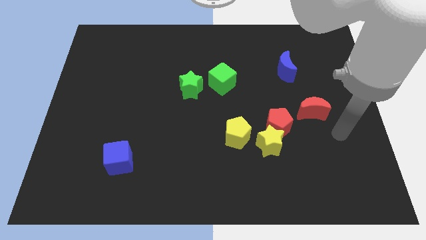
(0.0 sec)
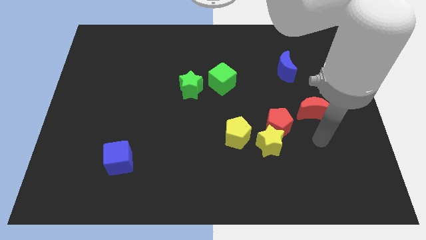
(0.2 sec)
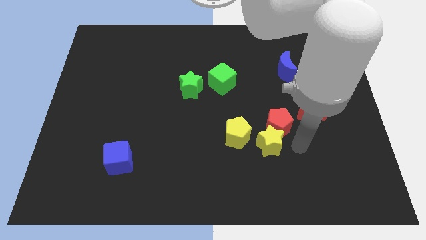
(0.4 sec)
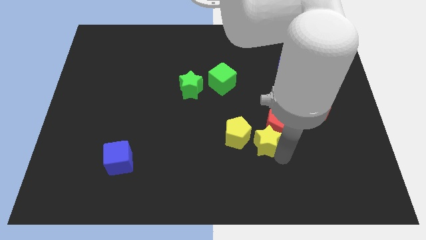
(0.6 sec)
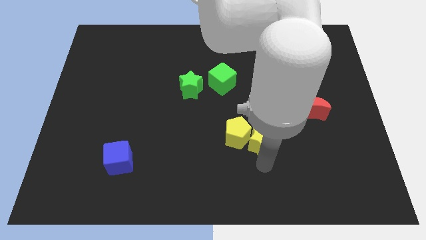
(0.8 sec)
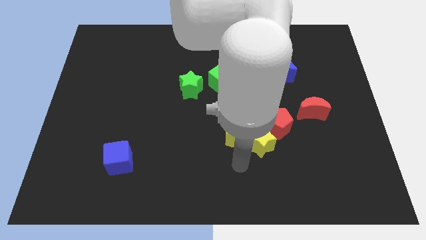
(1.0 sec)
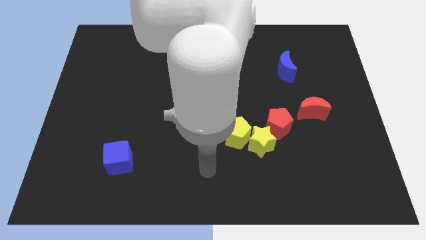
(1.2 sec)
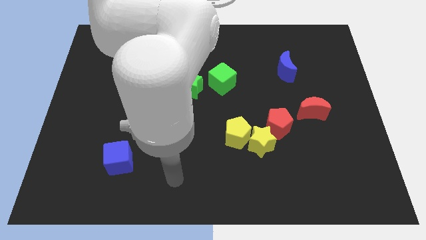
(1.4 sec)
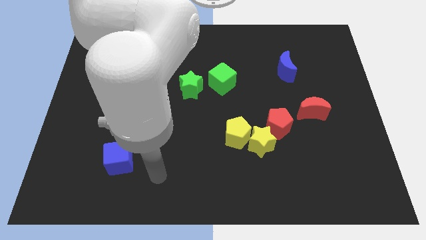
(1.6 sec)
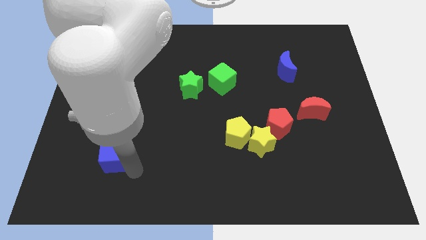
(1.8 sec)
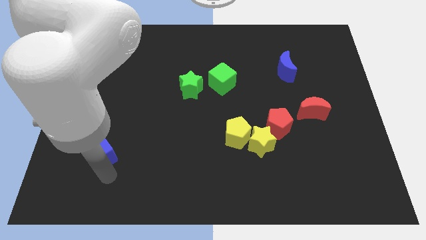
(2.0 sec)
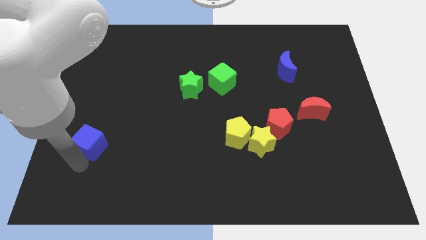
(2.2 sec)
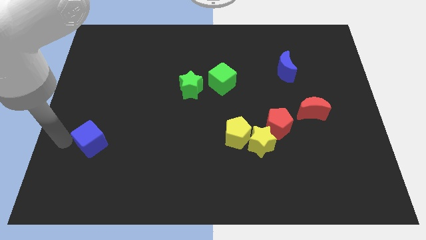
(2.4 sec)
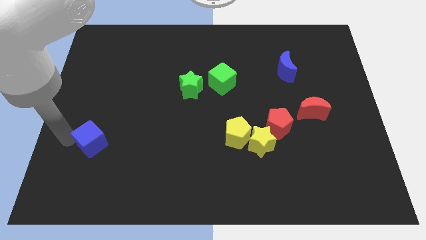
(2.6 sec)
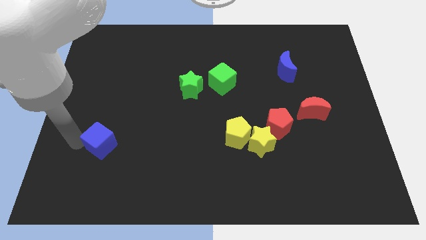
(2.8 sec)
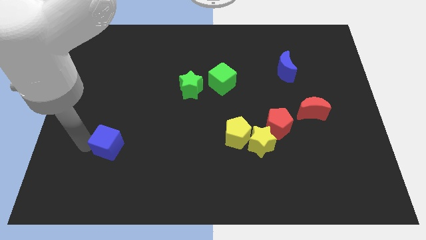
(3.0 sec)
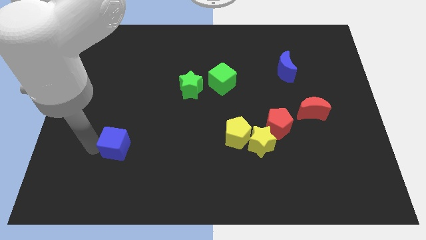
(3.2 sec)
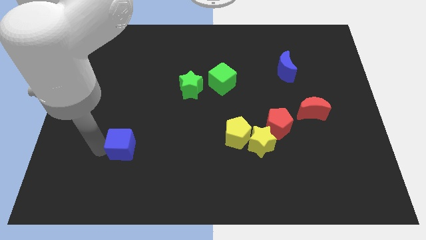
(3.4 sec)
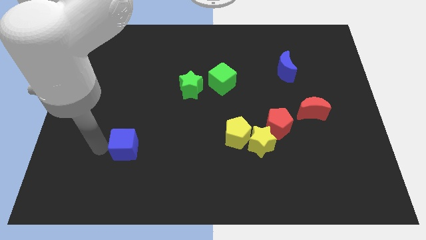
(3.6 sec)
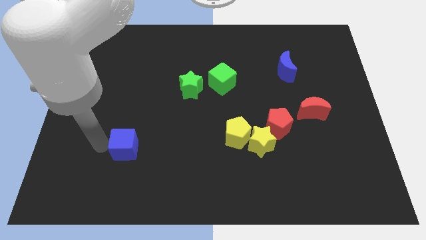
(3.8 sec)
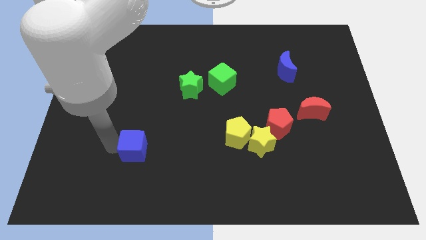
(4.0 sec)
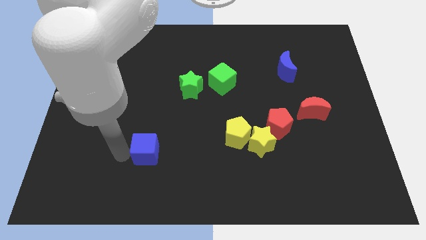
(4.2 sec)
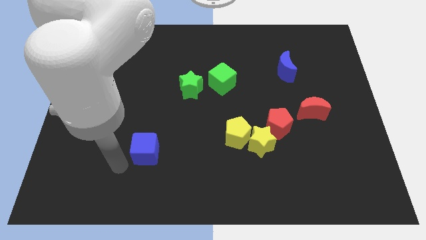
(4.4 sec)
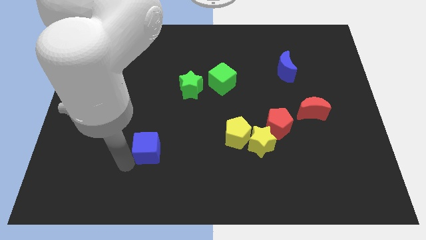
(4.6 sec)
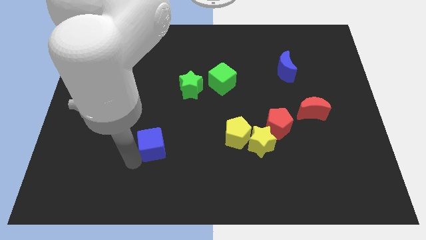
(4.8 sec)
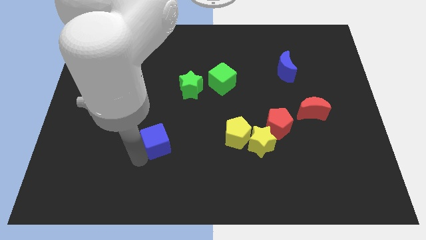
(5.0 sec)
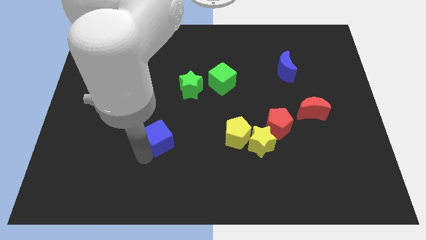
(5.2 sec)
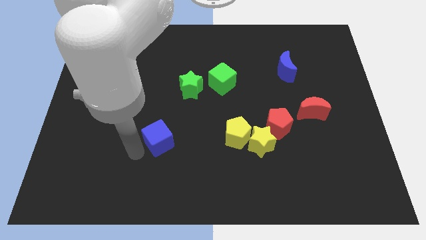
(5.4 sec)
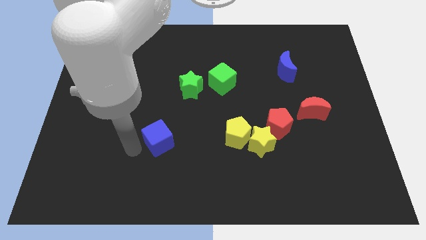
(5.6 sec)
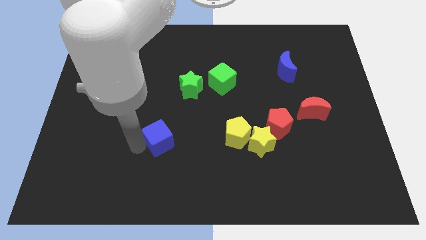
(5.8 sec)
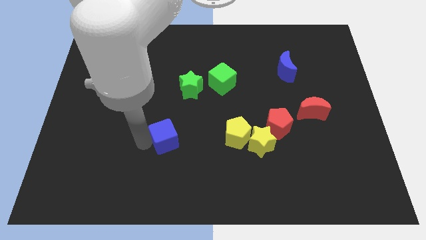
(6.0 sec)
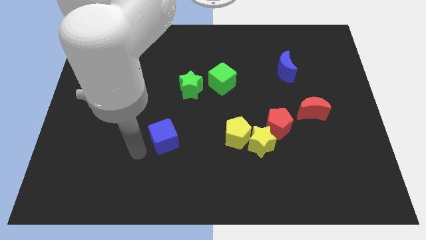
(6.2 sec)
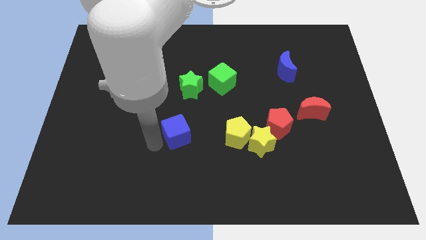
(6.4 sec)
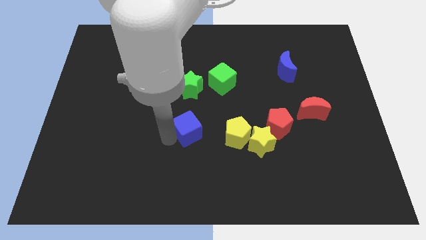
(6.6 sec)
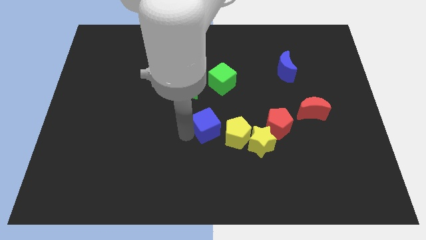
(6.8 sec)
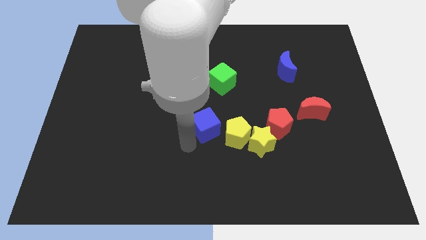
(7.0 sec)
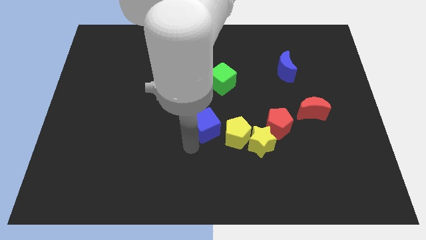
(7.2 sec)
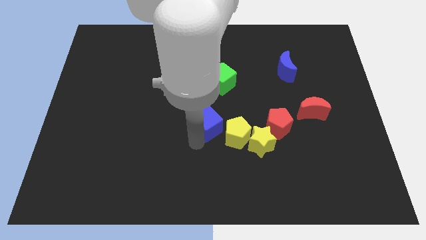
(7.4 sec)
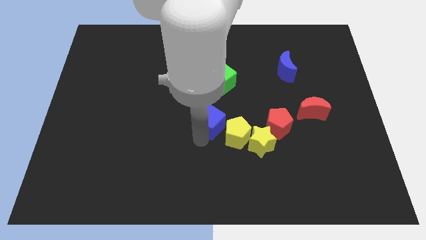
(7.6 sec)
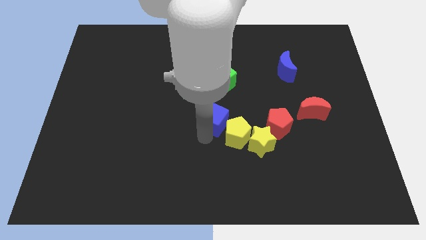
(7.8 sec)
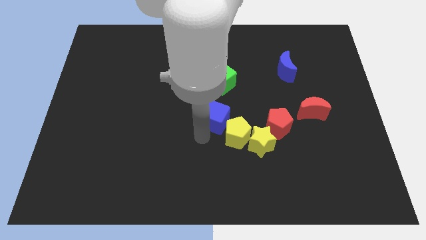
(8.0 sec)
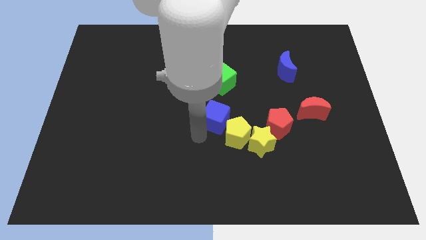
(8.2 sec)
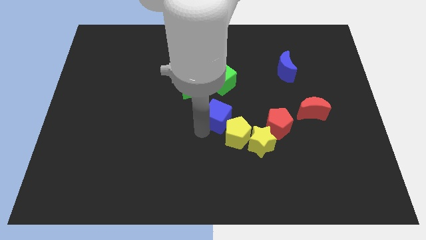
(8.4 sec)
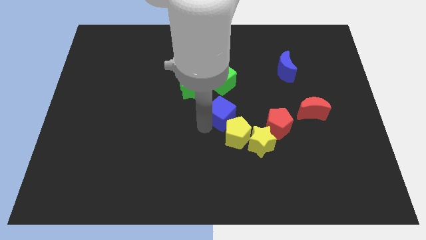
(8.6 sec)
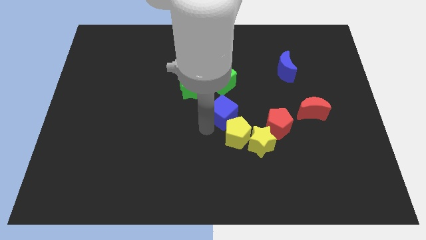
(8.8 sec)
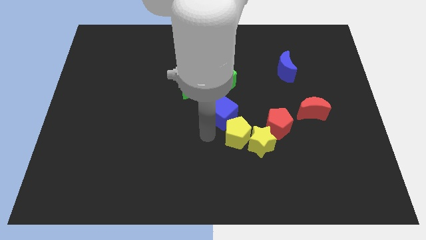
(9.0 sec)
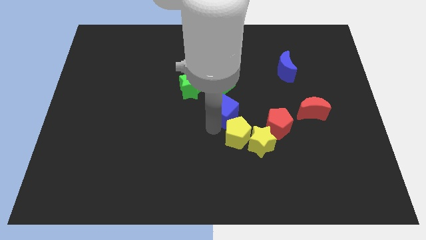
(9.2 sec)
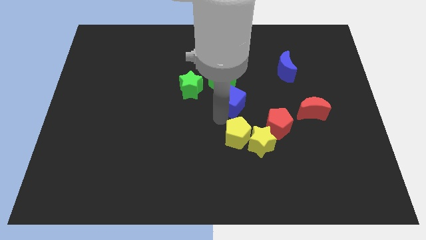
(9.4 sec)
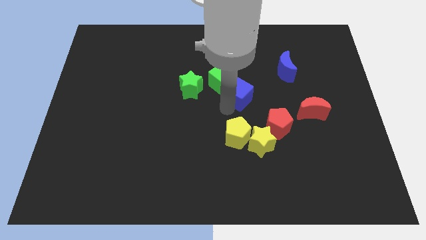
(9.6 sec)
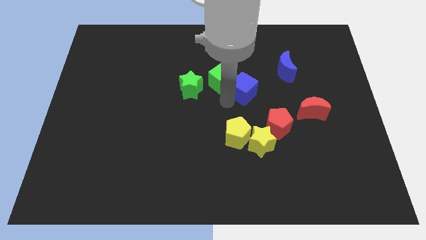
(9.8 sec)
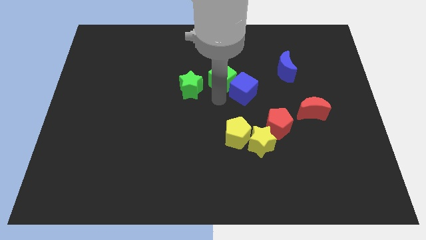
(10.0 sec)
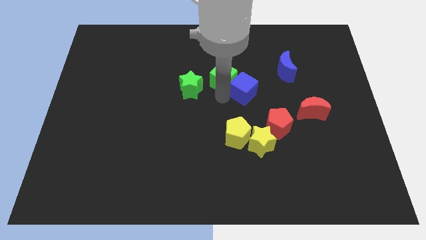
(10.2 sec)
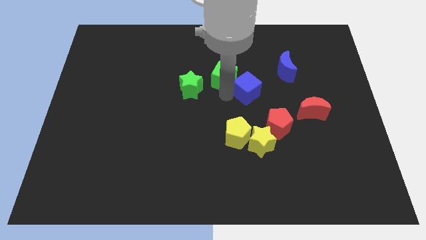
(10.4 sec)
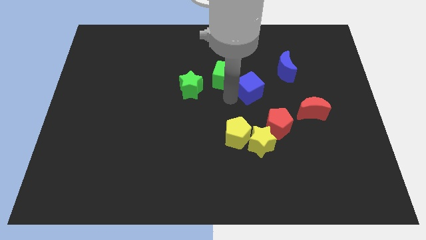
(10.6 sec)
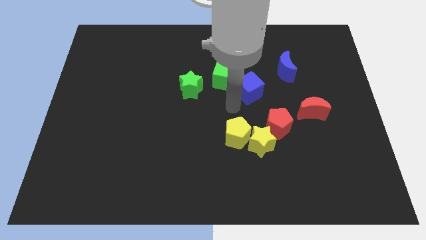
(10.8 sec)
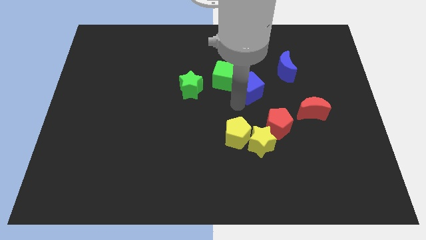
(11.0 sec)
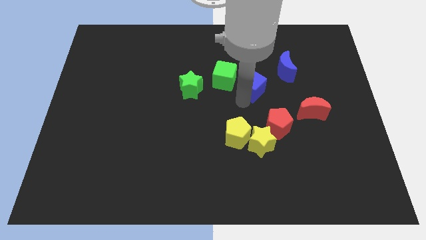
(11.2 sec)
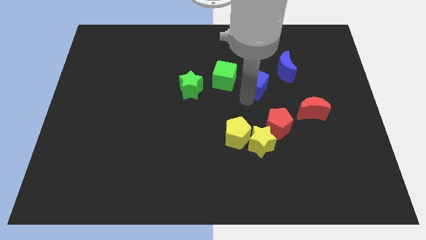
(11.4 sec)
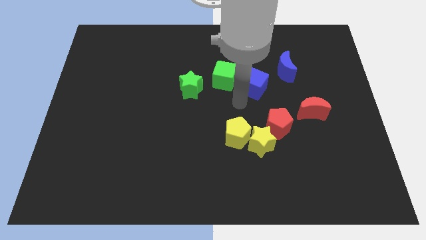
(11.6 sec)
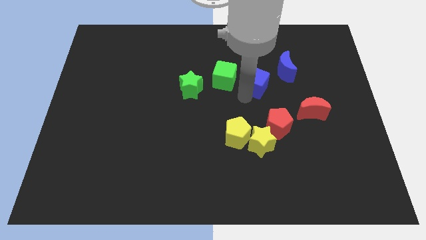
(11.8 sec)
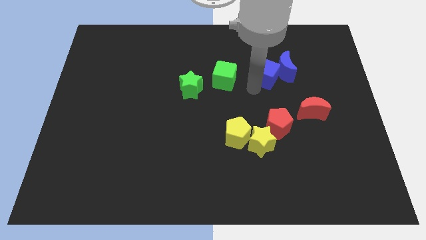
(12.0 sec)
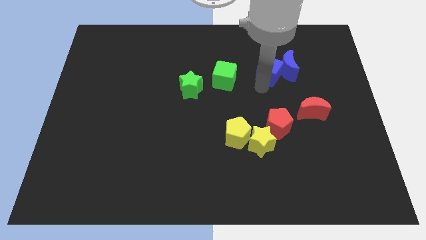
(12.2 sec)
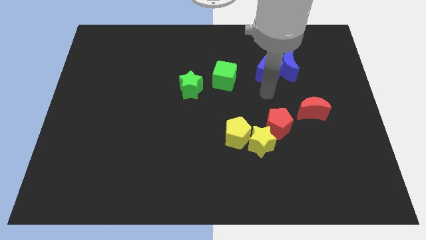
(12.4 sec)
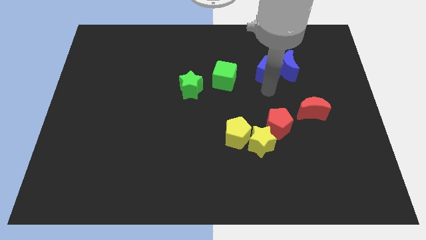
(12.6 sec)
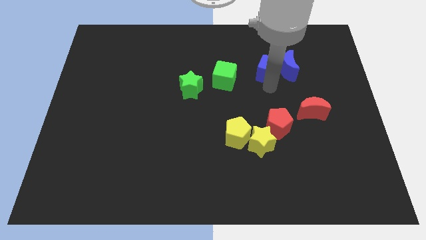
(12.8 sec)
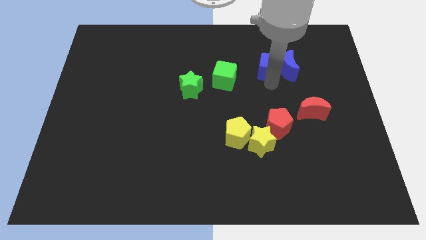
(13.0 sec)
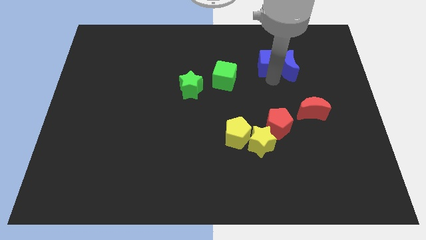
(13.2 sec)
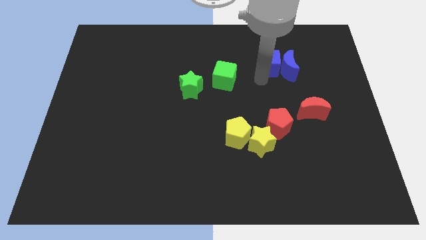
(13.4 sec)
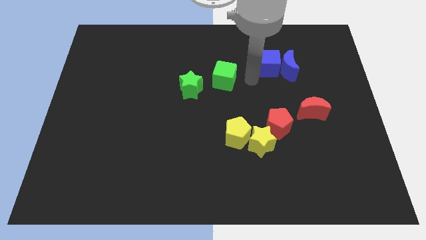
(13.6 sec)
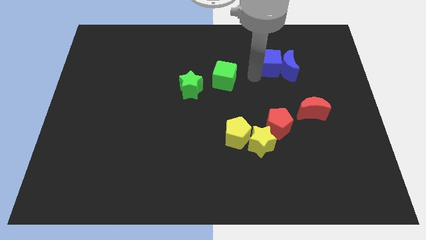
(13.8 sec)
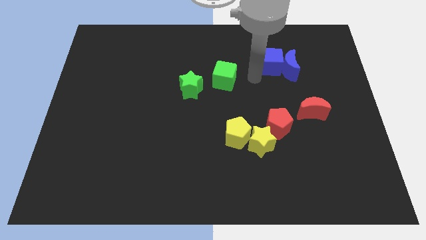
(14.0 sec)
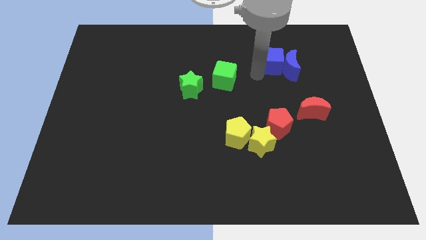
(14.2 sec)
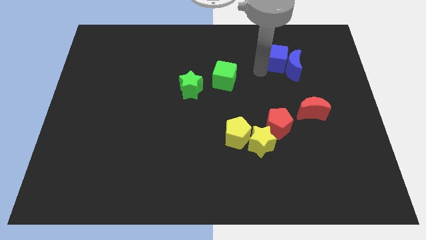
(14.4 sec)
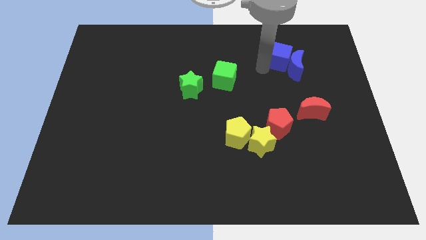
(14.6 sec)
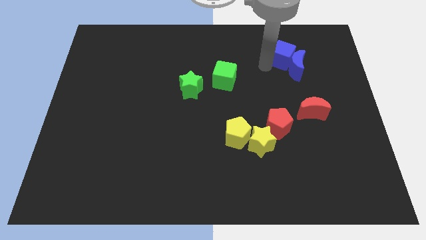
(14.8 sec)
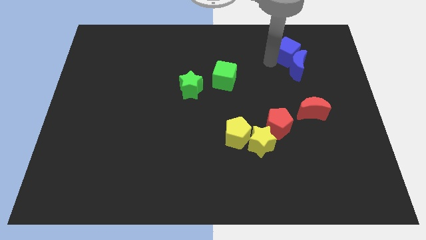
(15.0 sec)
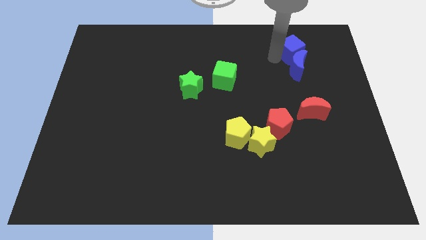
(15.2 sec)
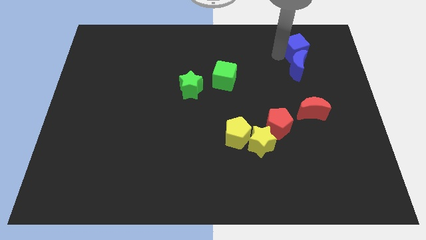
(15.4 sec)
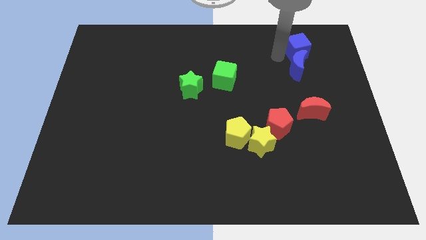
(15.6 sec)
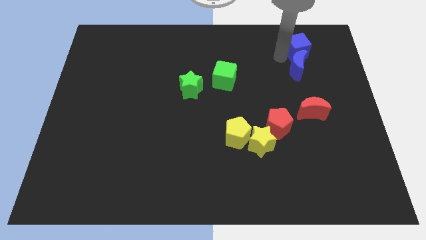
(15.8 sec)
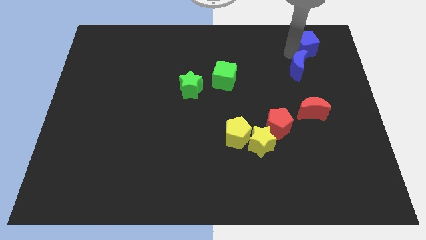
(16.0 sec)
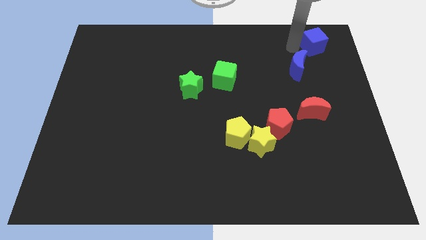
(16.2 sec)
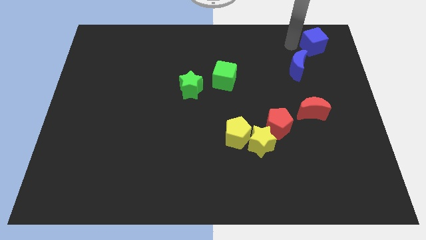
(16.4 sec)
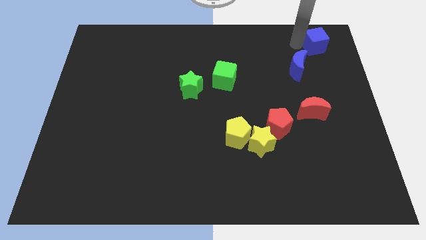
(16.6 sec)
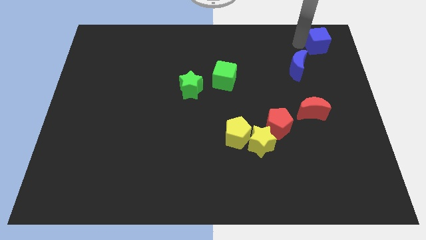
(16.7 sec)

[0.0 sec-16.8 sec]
put the blue cube to the top right
